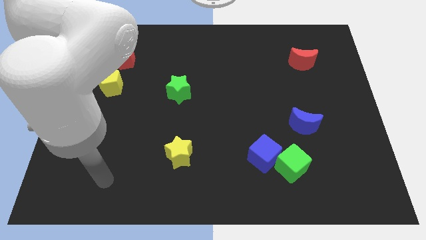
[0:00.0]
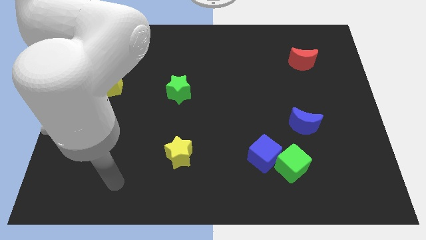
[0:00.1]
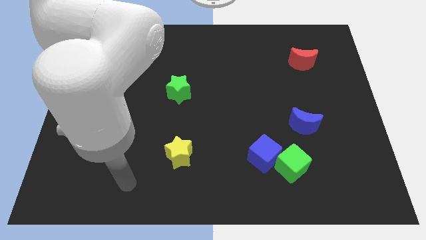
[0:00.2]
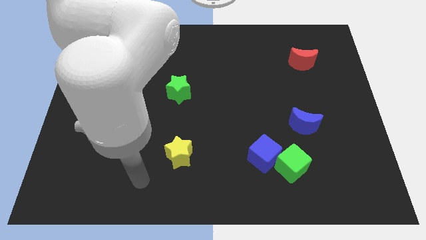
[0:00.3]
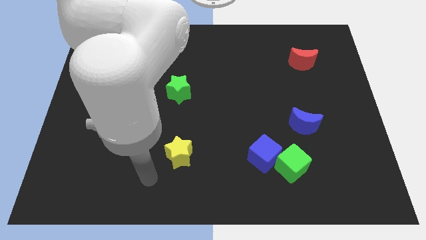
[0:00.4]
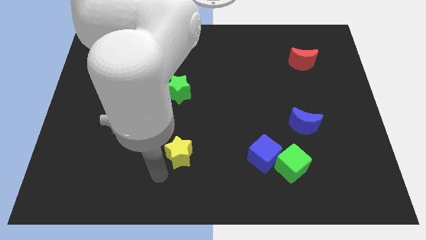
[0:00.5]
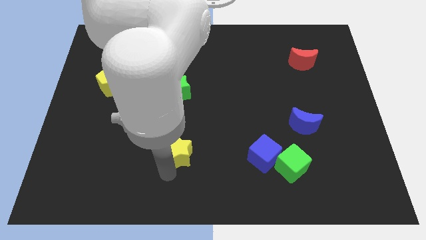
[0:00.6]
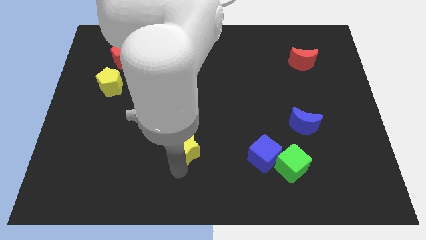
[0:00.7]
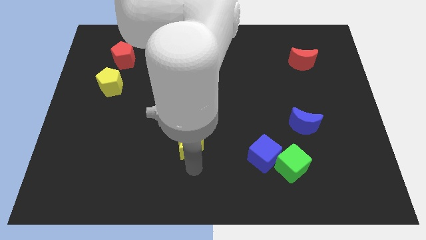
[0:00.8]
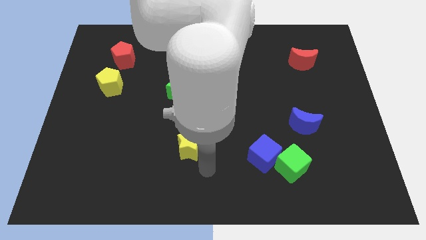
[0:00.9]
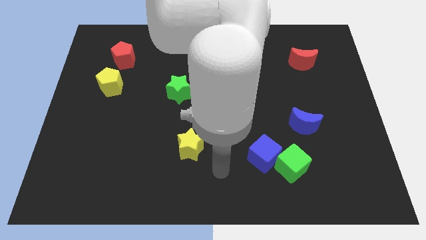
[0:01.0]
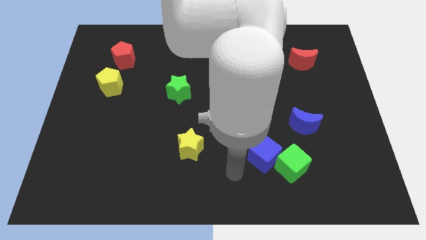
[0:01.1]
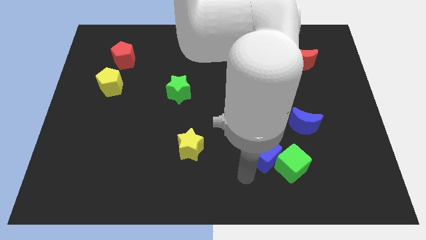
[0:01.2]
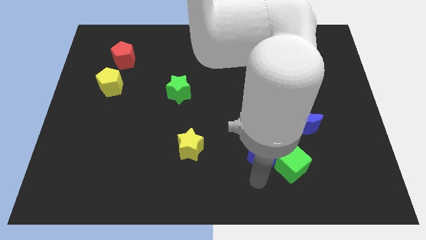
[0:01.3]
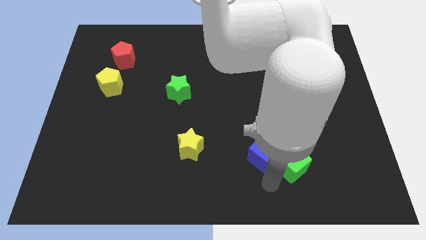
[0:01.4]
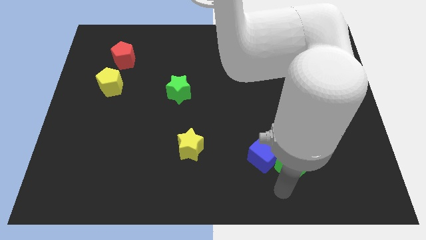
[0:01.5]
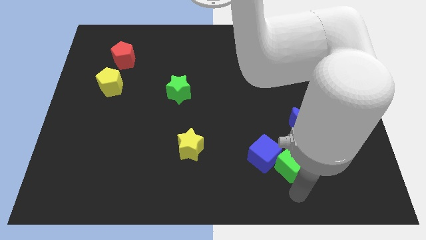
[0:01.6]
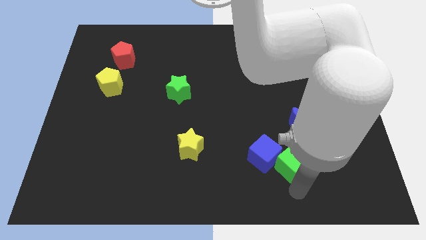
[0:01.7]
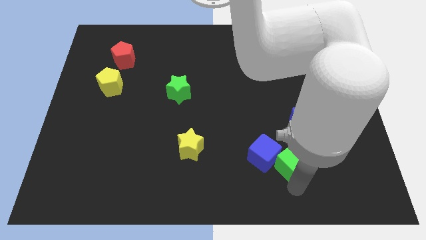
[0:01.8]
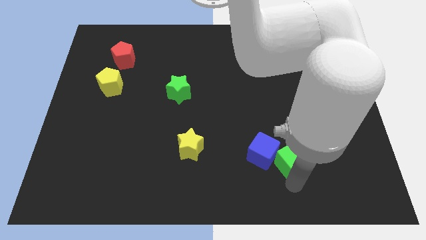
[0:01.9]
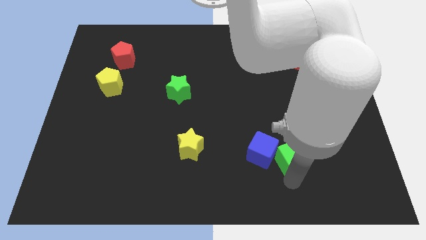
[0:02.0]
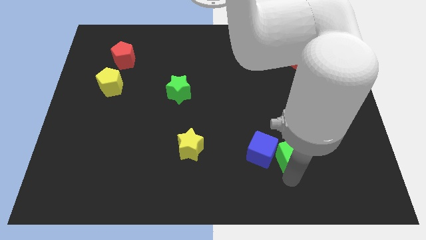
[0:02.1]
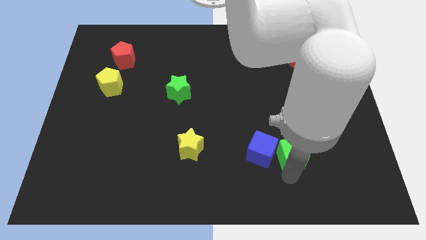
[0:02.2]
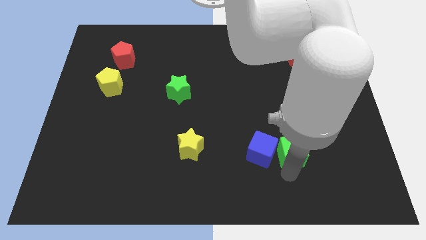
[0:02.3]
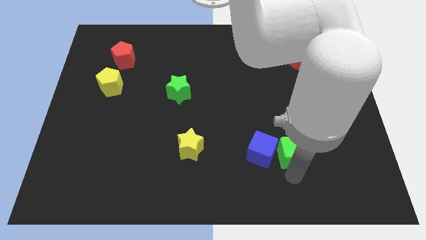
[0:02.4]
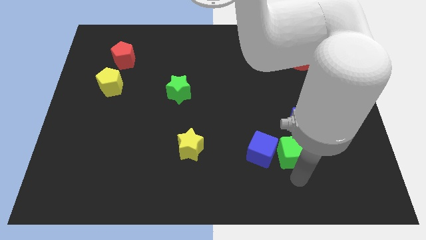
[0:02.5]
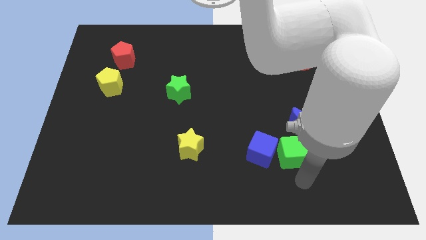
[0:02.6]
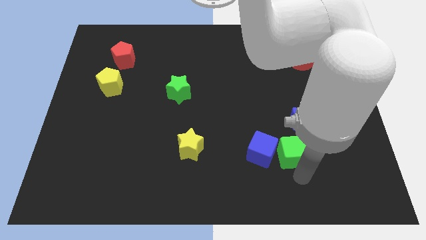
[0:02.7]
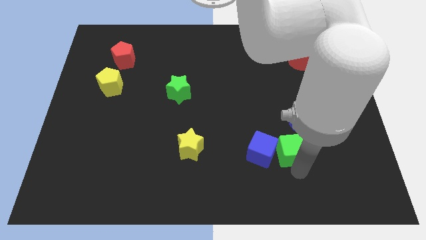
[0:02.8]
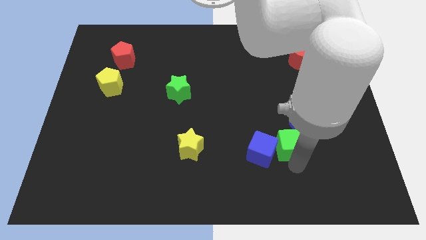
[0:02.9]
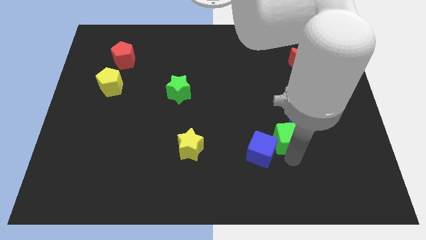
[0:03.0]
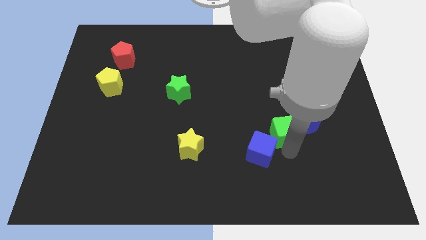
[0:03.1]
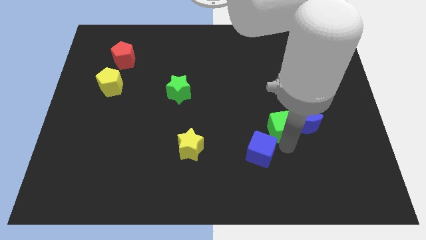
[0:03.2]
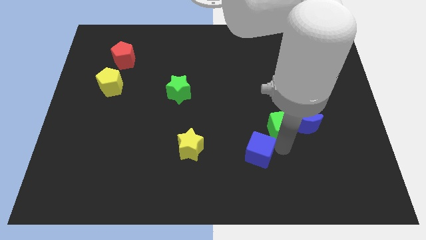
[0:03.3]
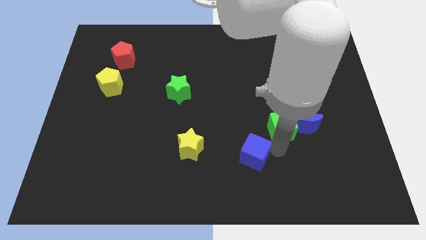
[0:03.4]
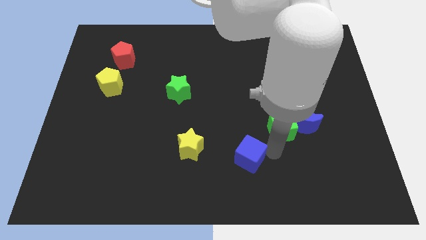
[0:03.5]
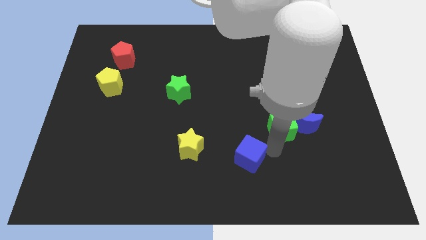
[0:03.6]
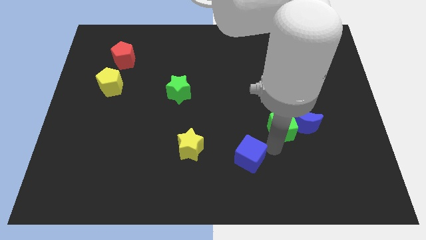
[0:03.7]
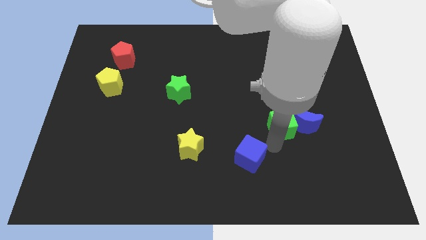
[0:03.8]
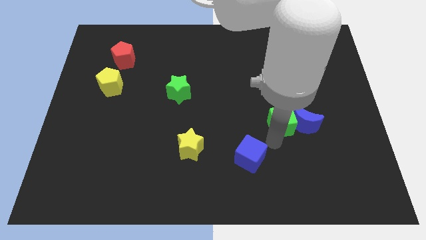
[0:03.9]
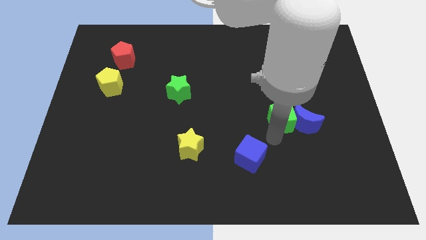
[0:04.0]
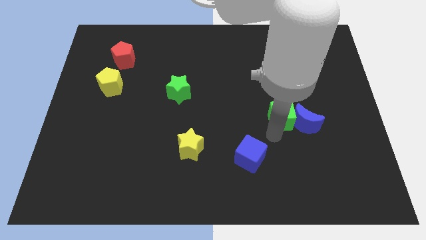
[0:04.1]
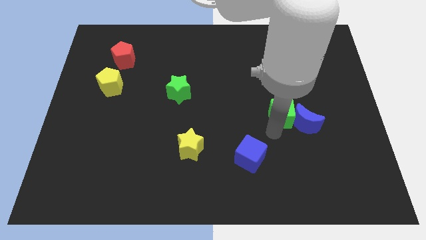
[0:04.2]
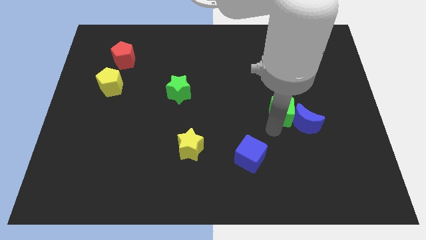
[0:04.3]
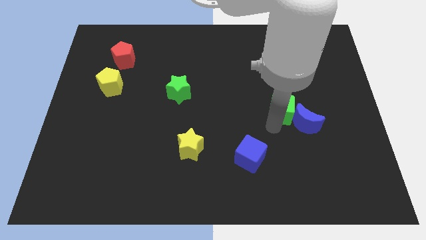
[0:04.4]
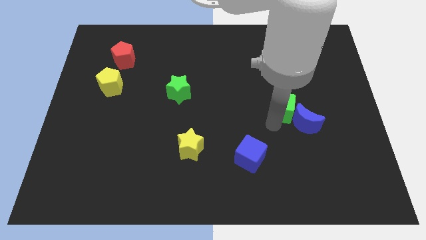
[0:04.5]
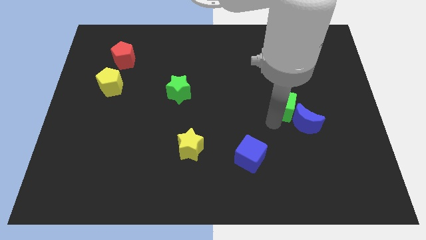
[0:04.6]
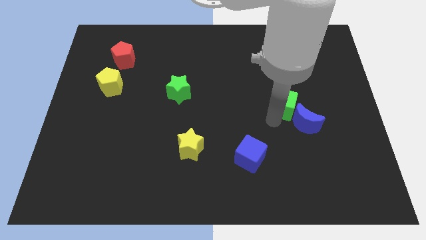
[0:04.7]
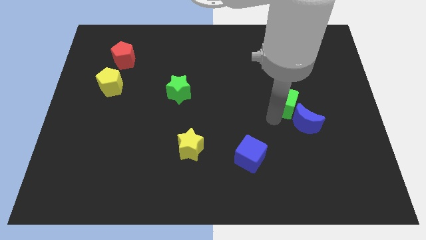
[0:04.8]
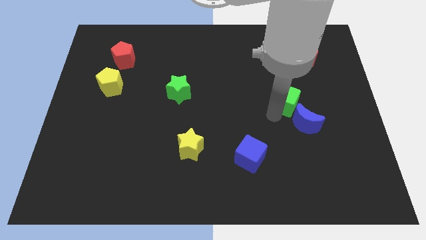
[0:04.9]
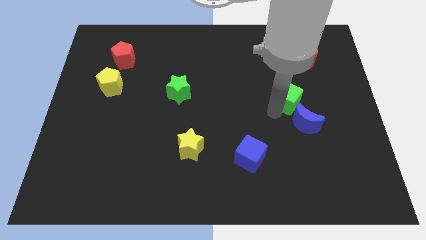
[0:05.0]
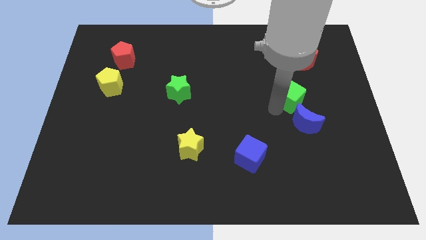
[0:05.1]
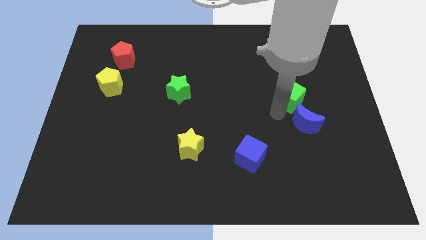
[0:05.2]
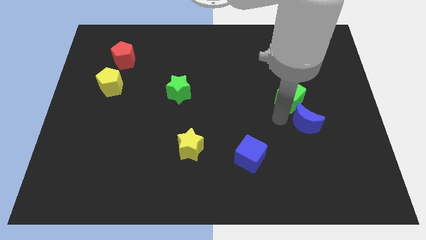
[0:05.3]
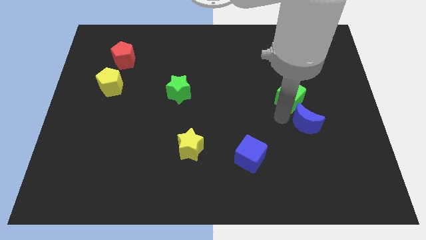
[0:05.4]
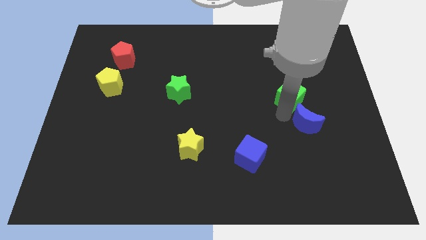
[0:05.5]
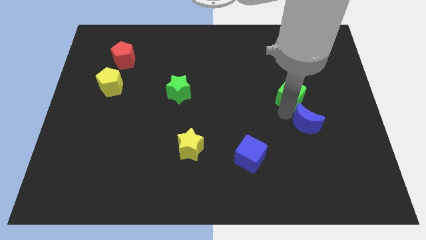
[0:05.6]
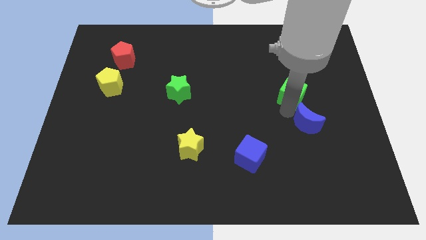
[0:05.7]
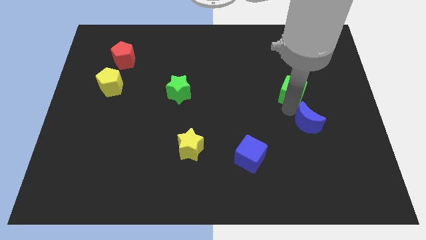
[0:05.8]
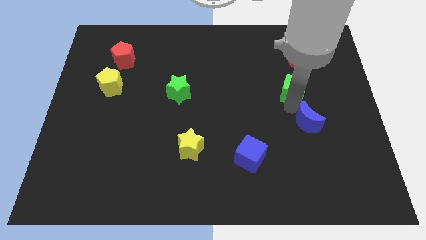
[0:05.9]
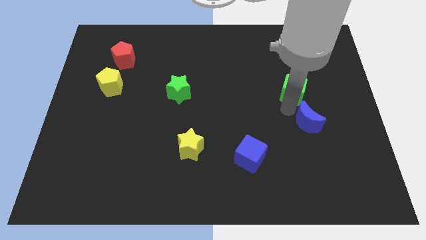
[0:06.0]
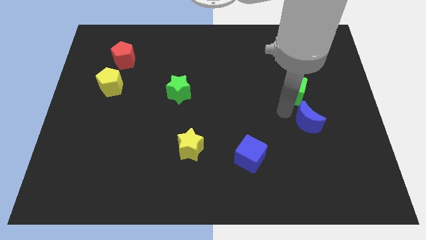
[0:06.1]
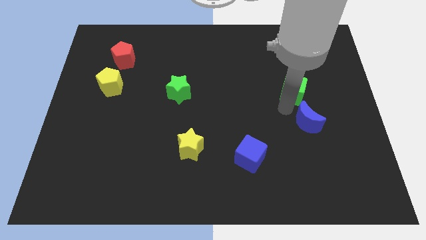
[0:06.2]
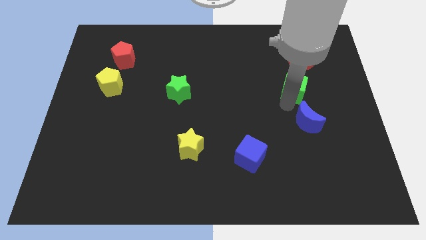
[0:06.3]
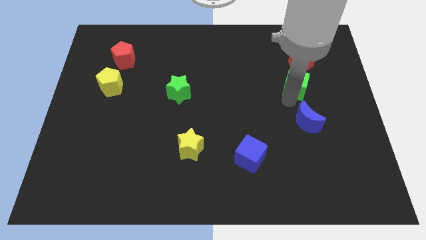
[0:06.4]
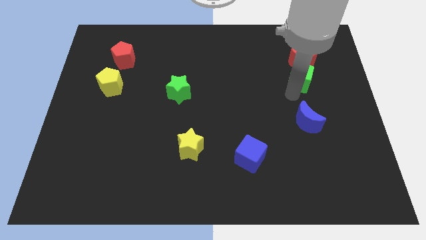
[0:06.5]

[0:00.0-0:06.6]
push the green cube to the red moon
